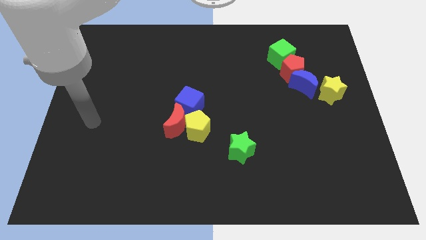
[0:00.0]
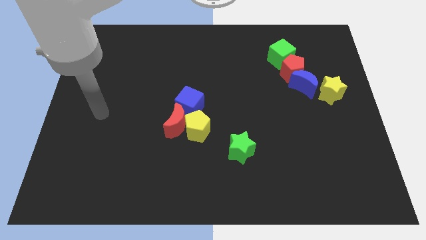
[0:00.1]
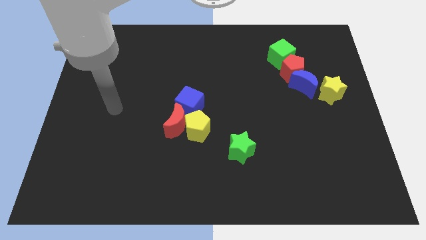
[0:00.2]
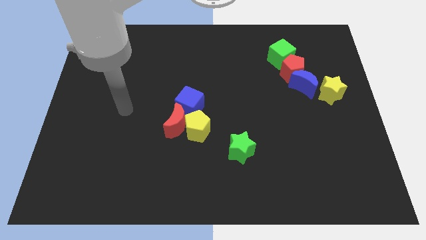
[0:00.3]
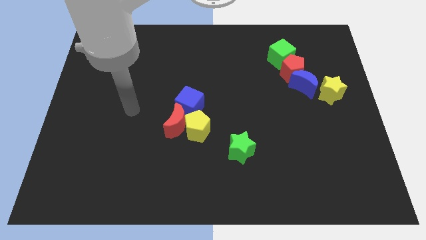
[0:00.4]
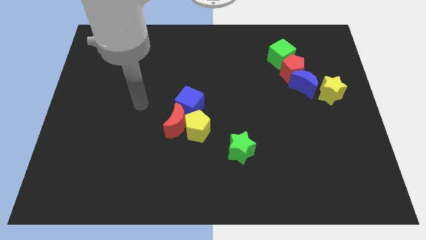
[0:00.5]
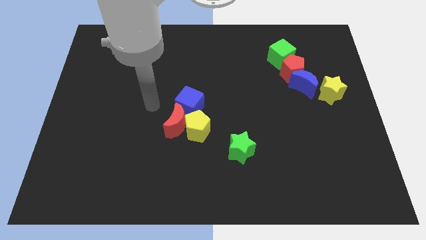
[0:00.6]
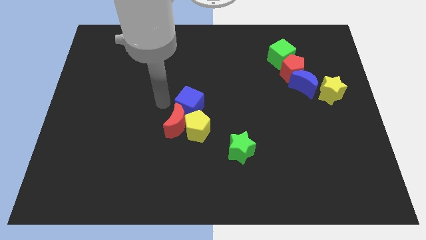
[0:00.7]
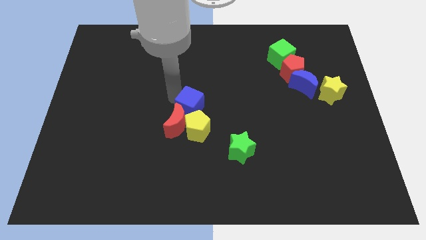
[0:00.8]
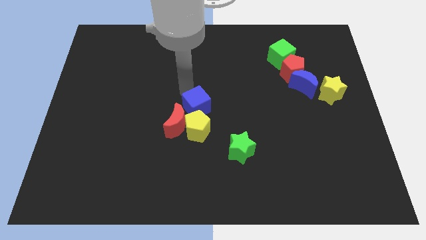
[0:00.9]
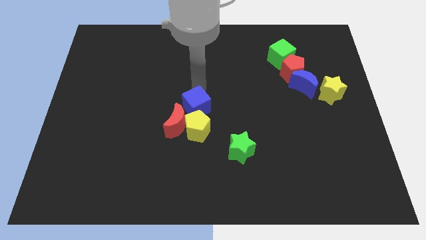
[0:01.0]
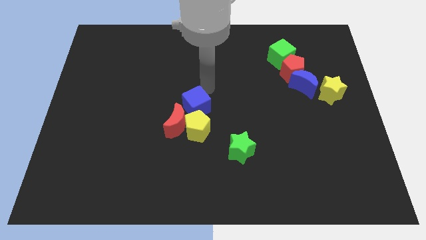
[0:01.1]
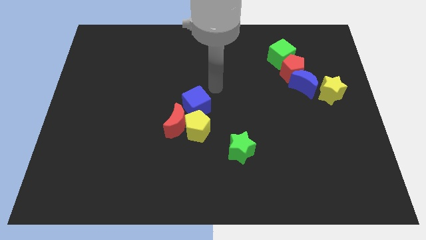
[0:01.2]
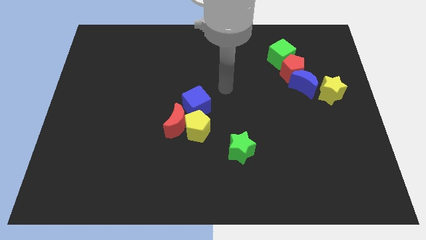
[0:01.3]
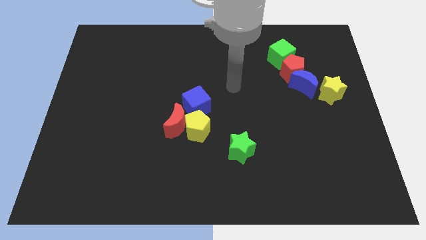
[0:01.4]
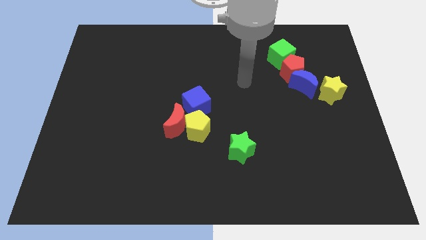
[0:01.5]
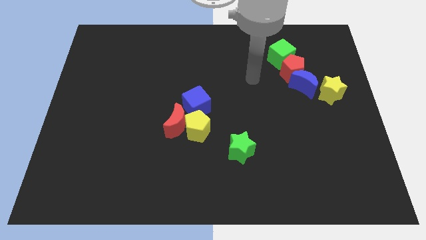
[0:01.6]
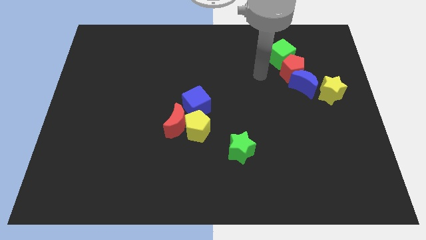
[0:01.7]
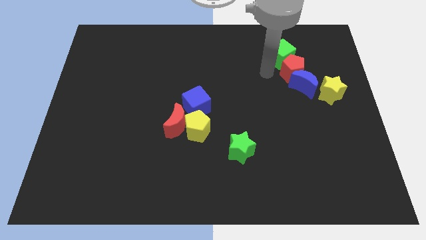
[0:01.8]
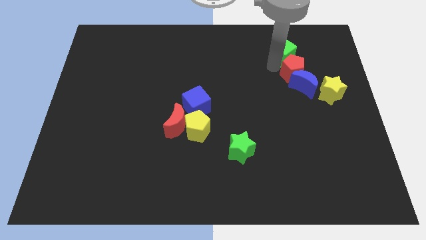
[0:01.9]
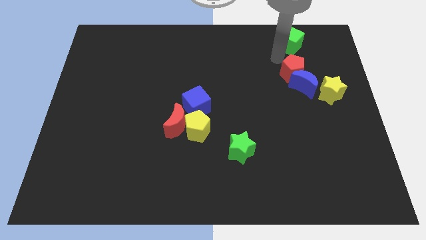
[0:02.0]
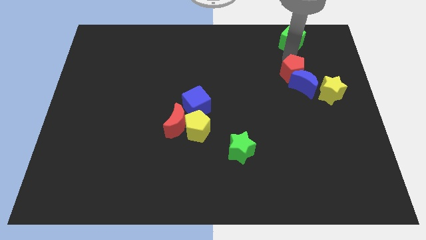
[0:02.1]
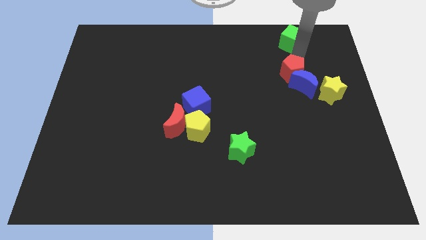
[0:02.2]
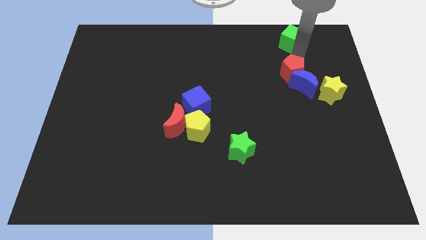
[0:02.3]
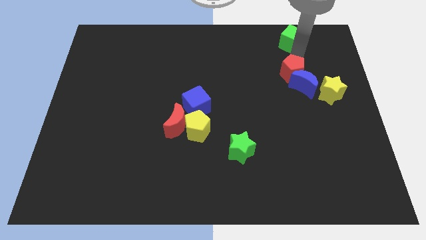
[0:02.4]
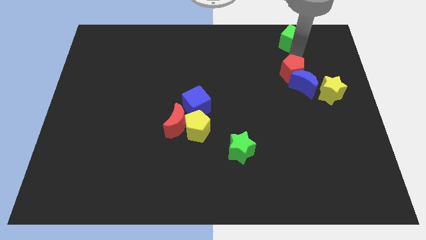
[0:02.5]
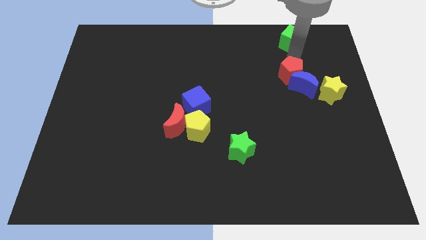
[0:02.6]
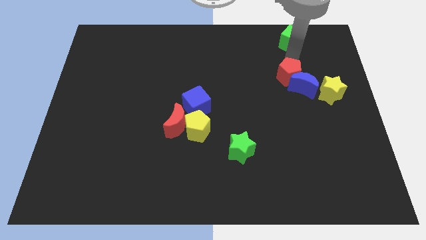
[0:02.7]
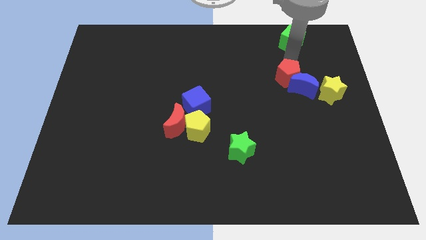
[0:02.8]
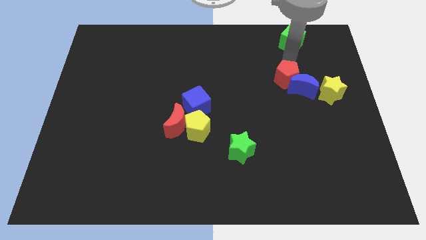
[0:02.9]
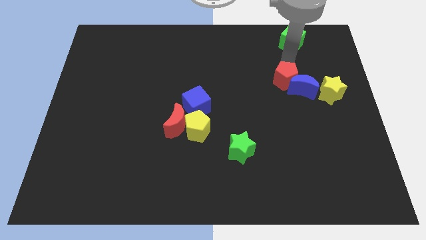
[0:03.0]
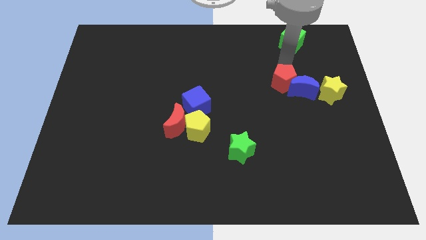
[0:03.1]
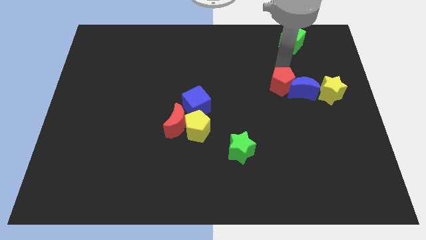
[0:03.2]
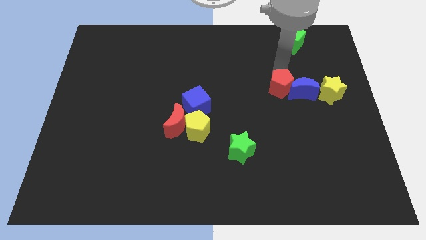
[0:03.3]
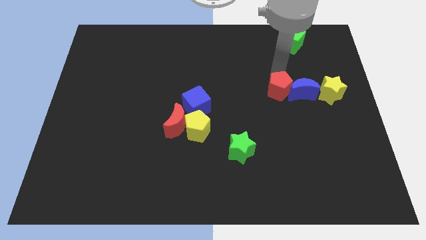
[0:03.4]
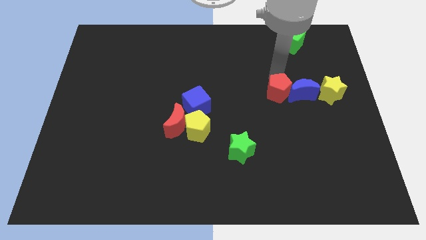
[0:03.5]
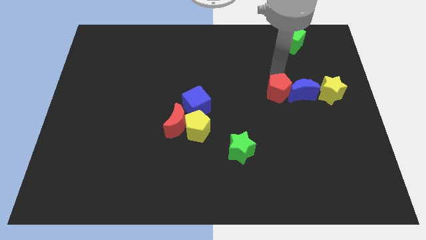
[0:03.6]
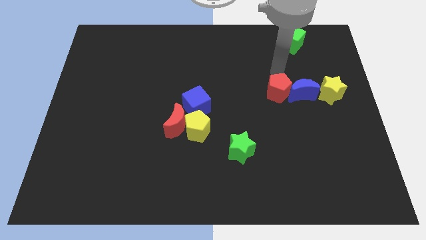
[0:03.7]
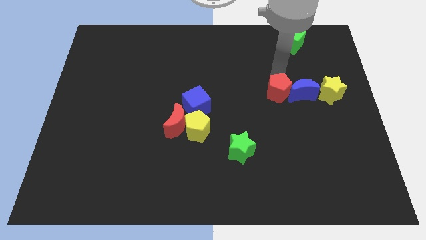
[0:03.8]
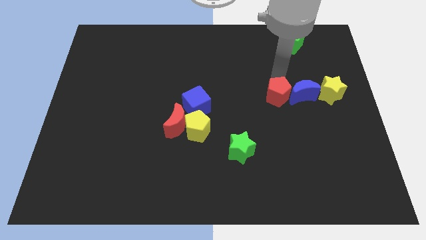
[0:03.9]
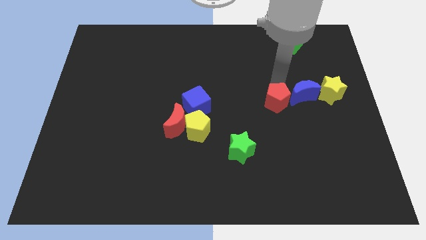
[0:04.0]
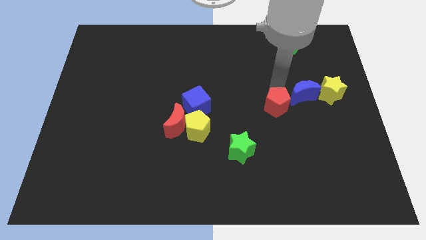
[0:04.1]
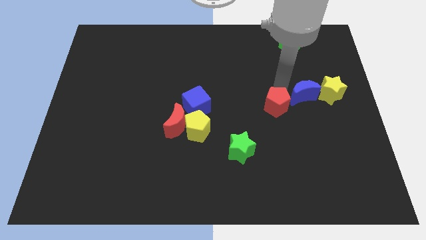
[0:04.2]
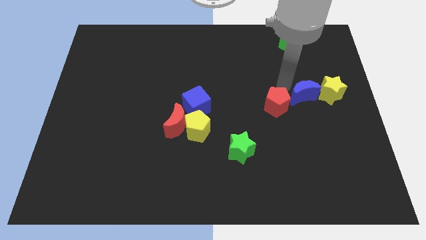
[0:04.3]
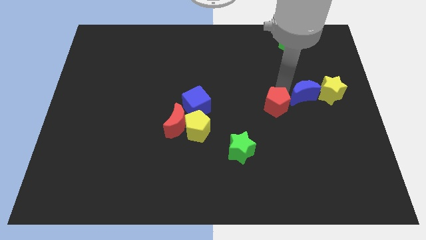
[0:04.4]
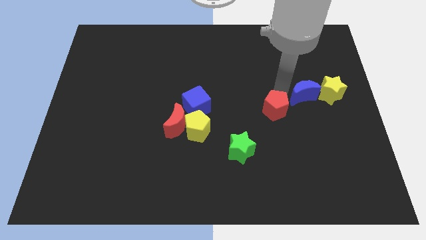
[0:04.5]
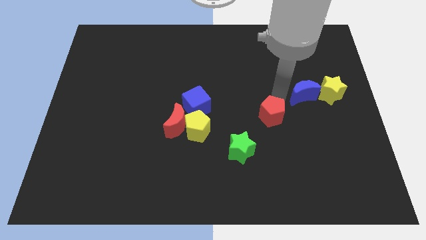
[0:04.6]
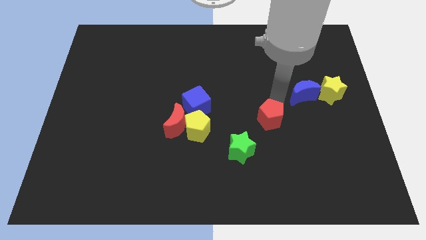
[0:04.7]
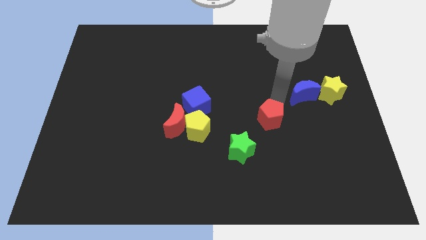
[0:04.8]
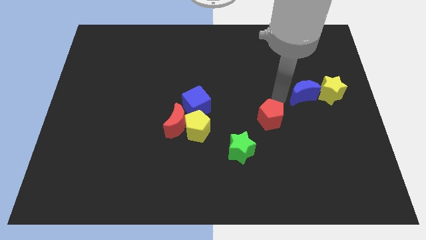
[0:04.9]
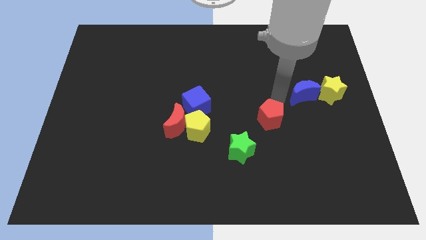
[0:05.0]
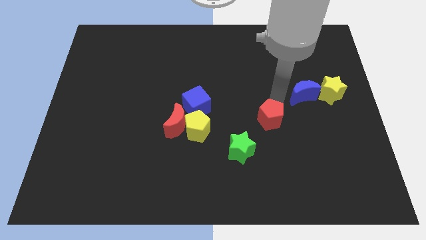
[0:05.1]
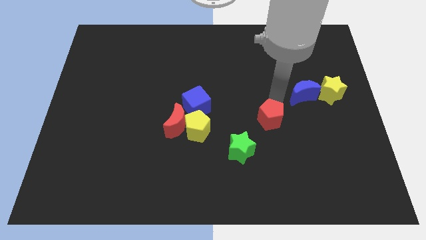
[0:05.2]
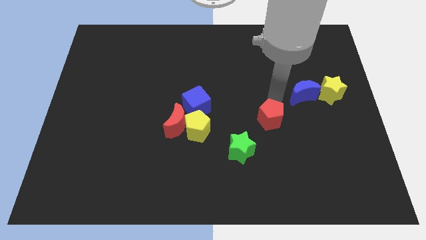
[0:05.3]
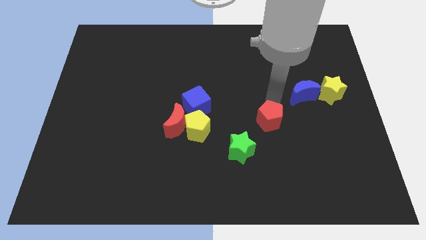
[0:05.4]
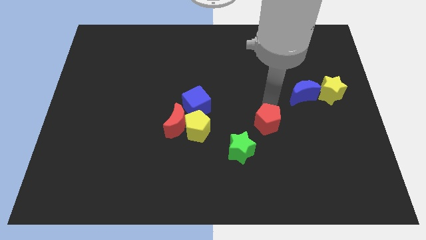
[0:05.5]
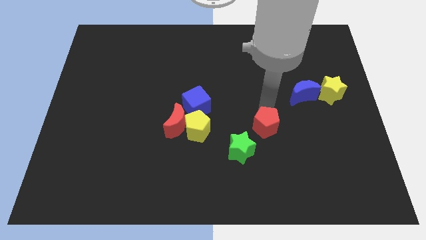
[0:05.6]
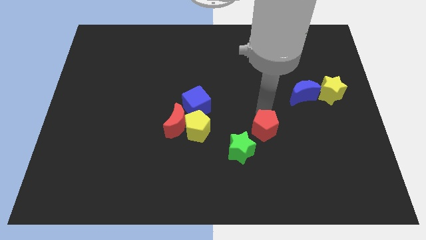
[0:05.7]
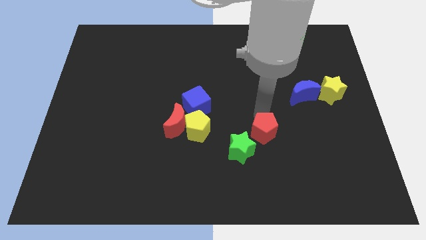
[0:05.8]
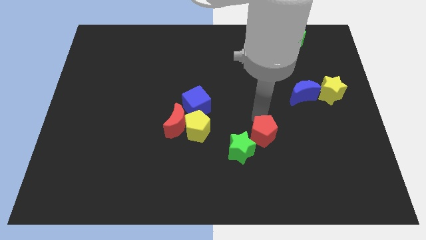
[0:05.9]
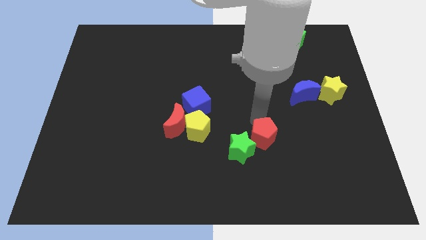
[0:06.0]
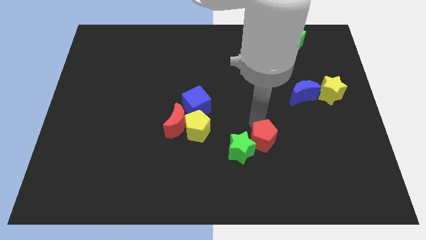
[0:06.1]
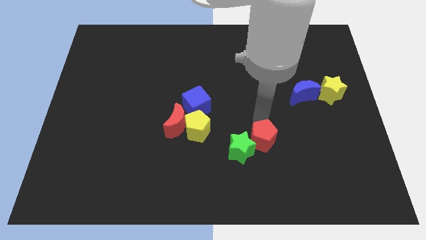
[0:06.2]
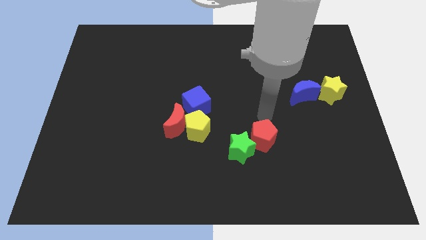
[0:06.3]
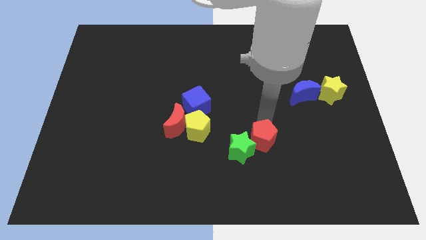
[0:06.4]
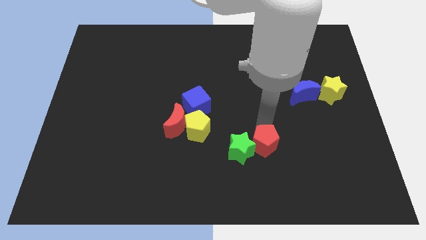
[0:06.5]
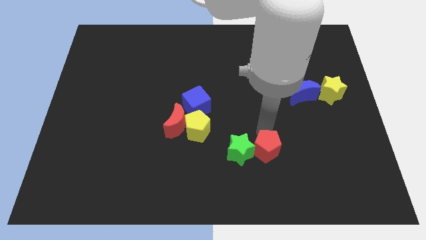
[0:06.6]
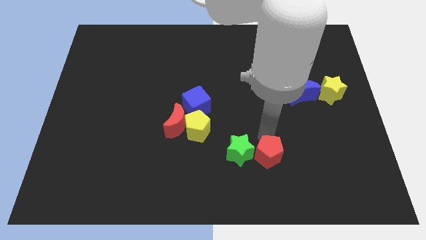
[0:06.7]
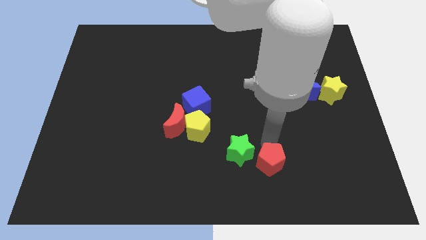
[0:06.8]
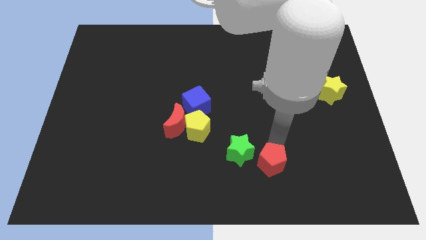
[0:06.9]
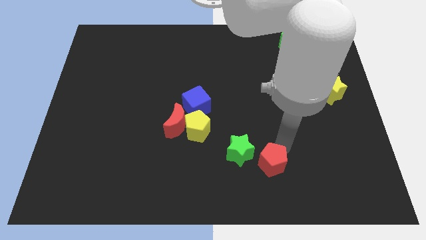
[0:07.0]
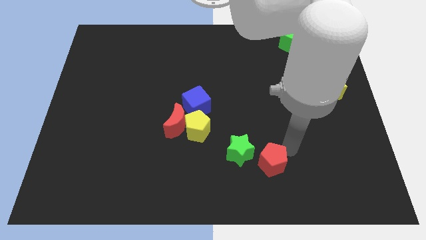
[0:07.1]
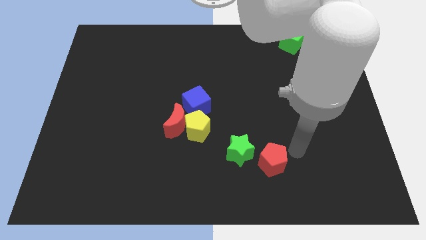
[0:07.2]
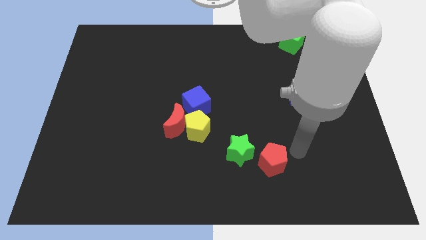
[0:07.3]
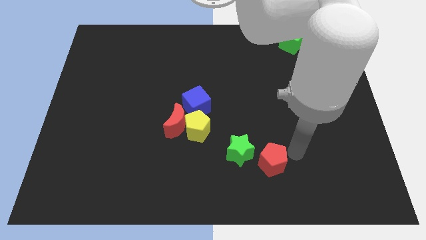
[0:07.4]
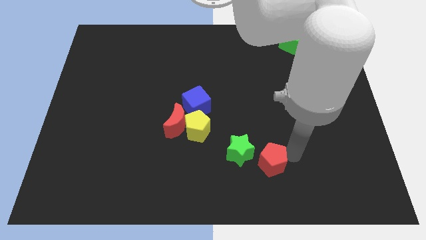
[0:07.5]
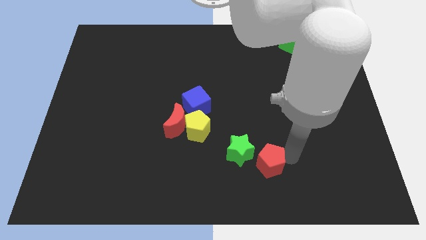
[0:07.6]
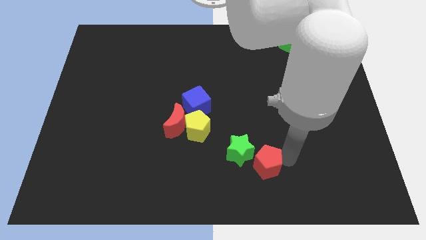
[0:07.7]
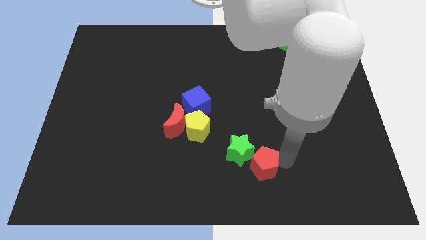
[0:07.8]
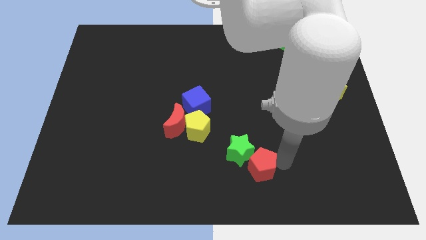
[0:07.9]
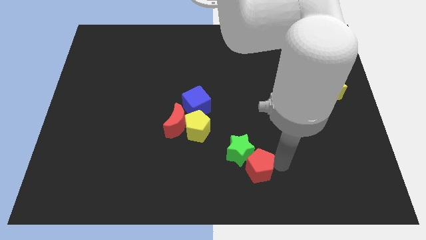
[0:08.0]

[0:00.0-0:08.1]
put the red pentagon to the bottom side
